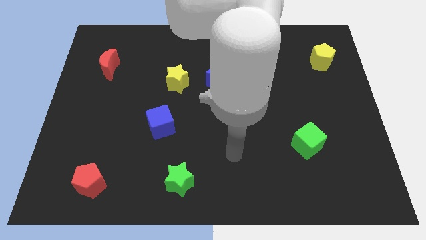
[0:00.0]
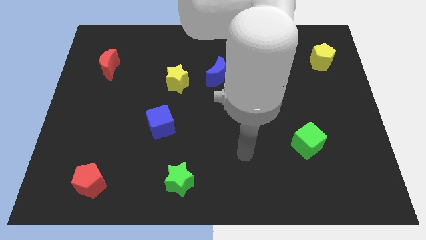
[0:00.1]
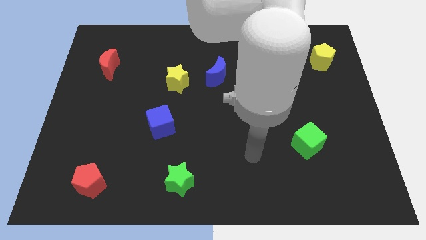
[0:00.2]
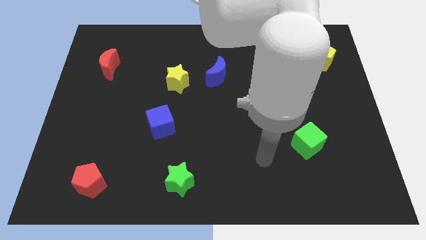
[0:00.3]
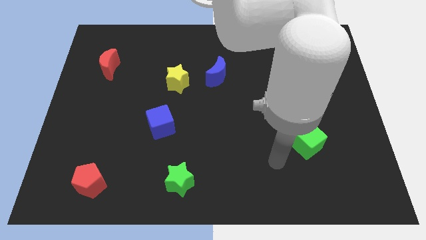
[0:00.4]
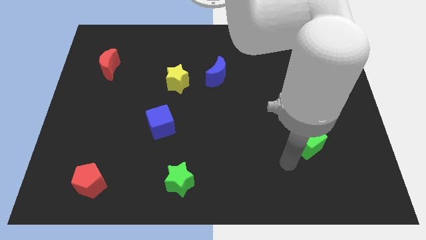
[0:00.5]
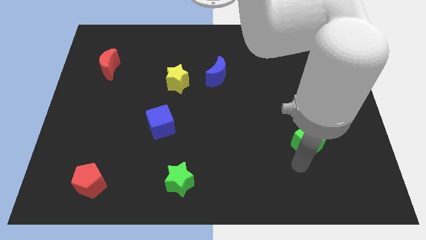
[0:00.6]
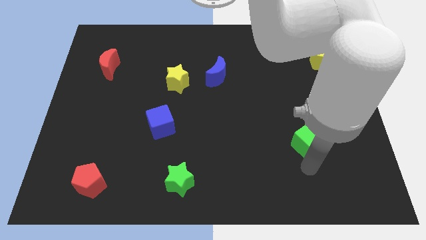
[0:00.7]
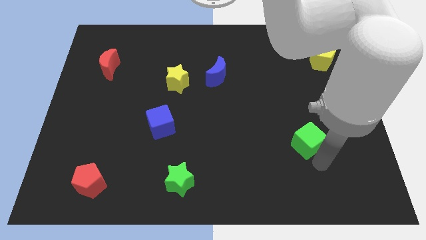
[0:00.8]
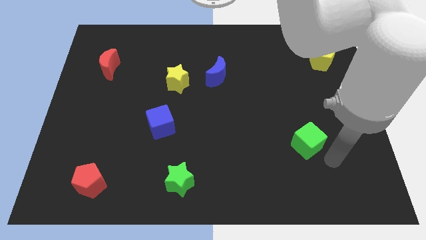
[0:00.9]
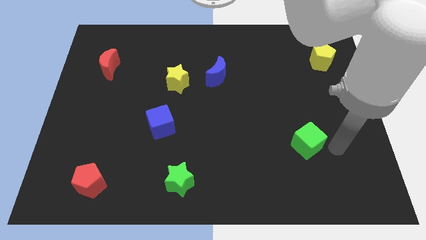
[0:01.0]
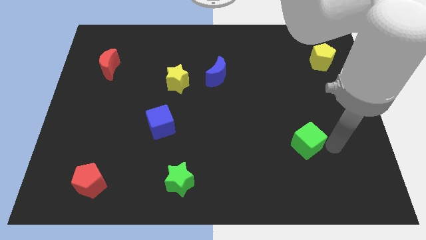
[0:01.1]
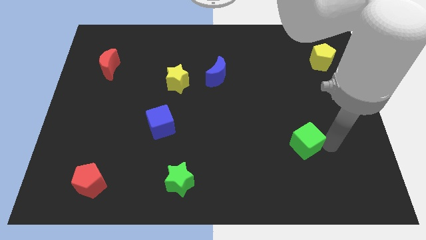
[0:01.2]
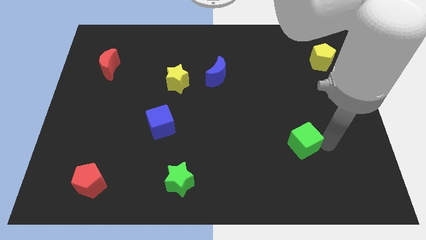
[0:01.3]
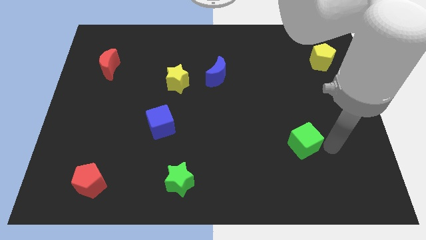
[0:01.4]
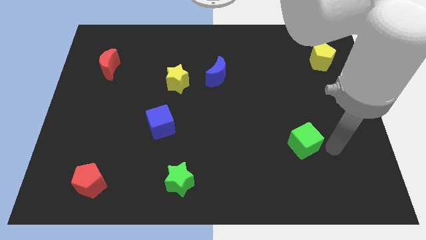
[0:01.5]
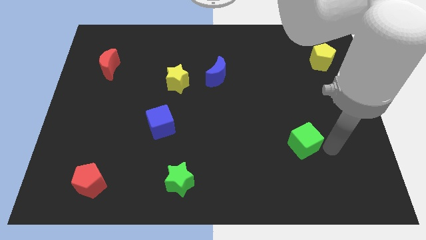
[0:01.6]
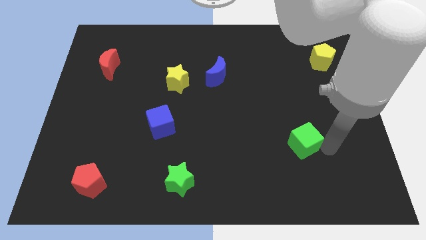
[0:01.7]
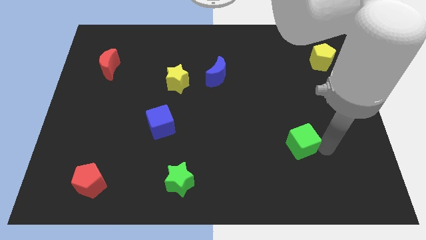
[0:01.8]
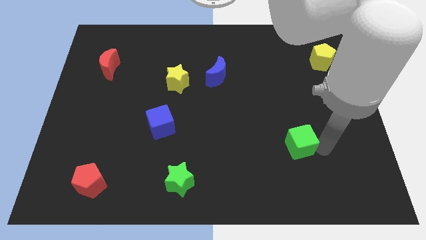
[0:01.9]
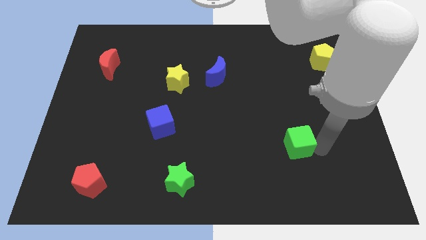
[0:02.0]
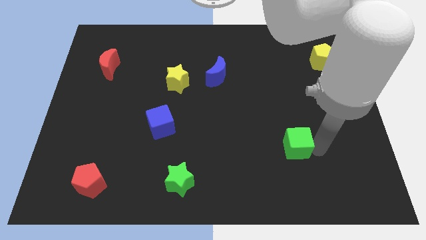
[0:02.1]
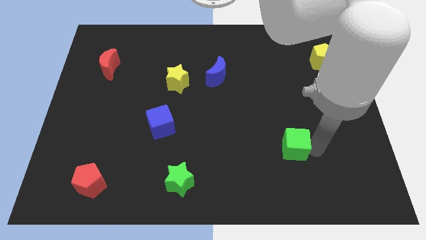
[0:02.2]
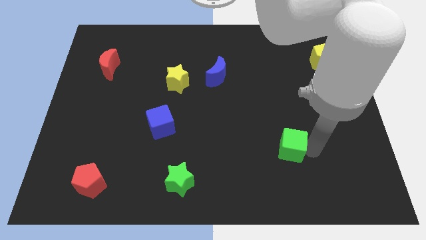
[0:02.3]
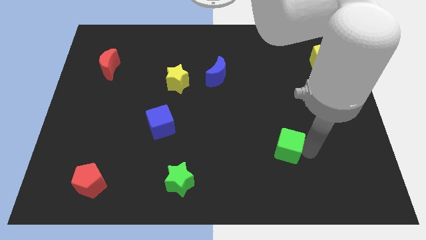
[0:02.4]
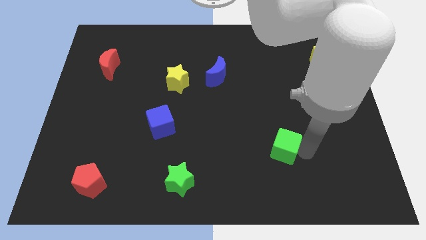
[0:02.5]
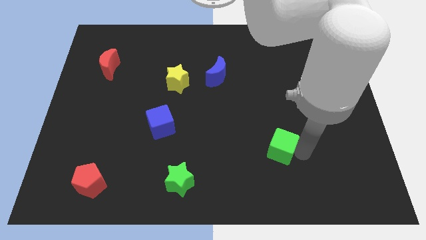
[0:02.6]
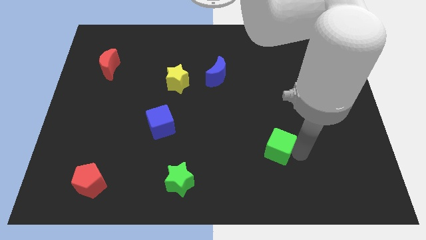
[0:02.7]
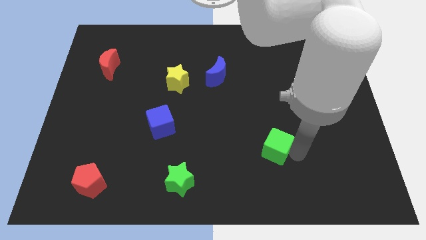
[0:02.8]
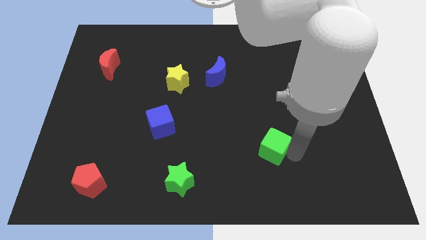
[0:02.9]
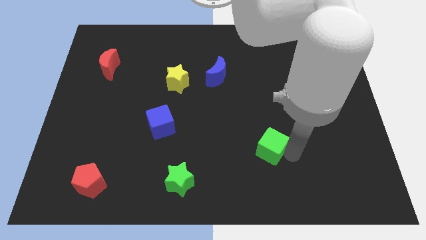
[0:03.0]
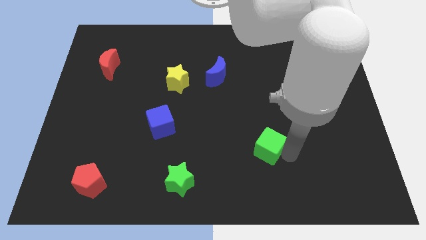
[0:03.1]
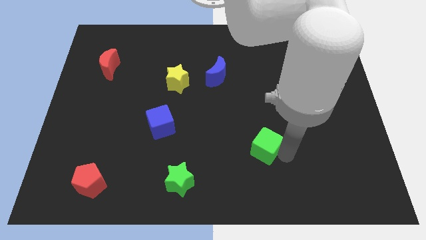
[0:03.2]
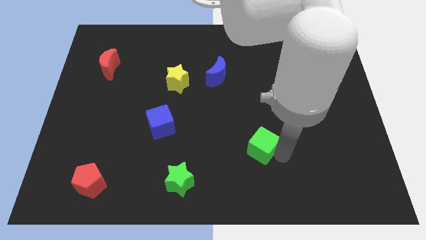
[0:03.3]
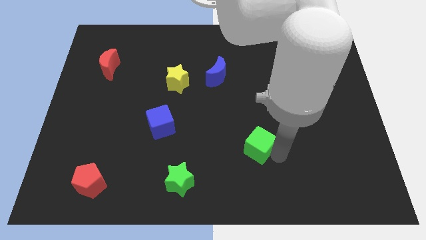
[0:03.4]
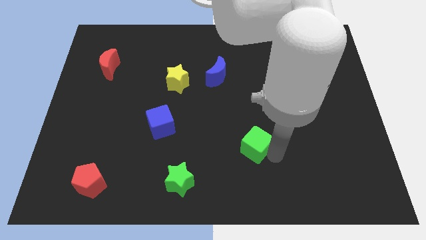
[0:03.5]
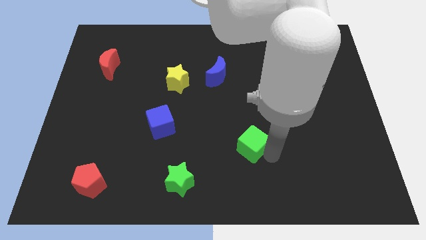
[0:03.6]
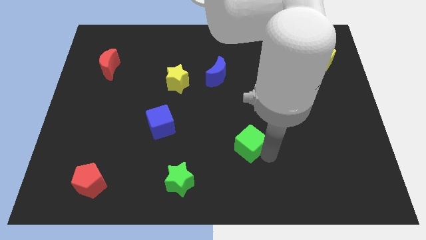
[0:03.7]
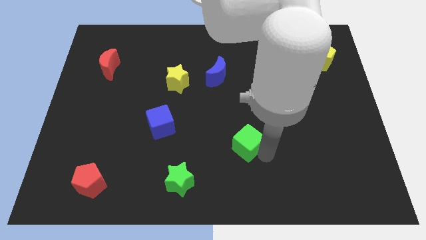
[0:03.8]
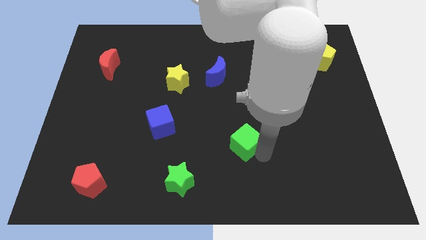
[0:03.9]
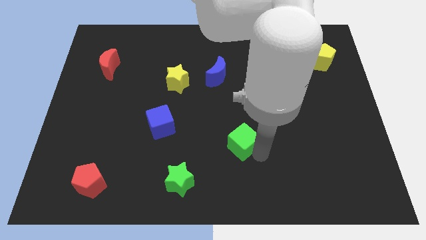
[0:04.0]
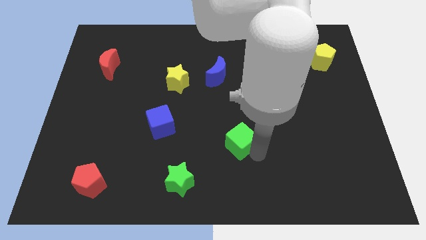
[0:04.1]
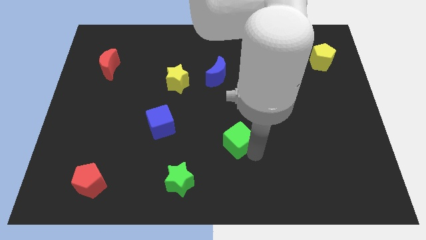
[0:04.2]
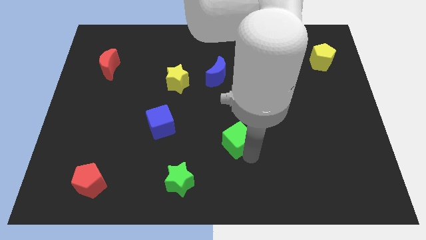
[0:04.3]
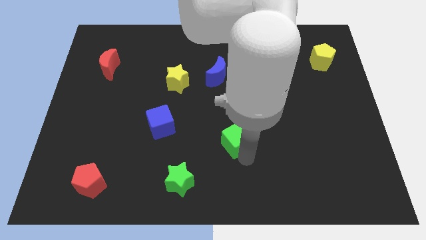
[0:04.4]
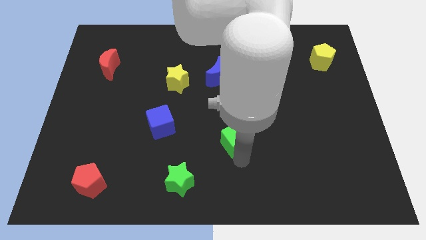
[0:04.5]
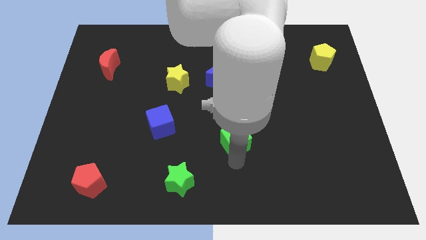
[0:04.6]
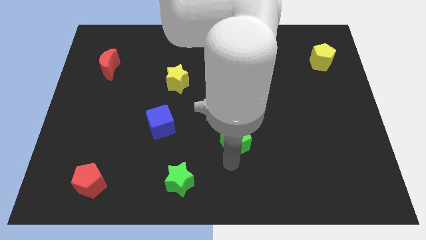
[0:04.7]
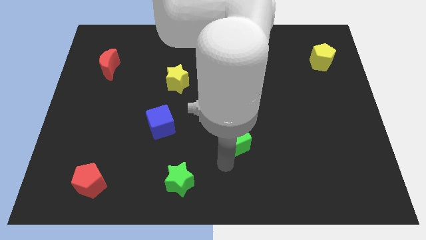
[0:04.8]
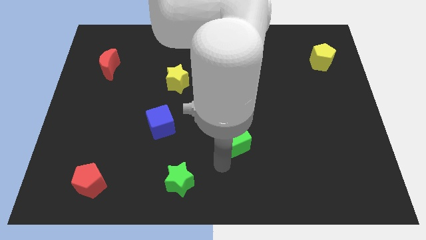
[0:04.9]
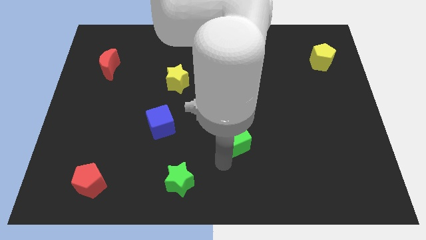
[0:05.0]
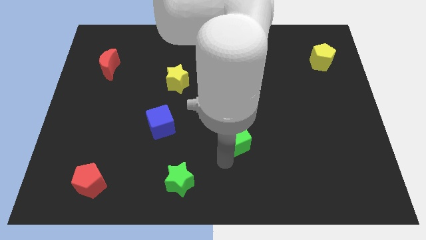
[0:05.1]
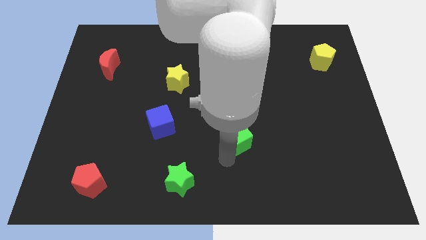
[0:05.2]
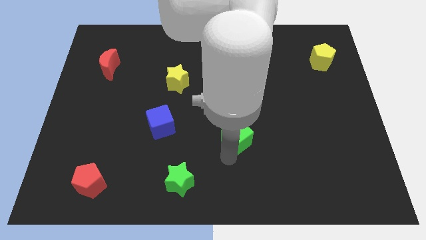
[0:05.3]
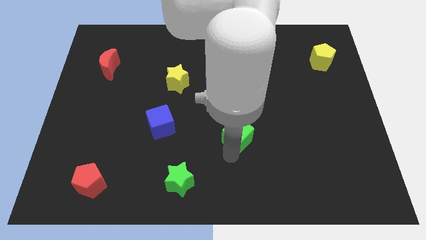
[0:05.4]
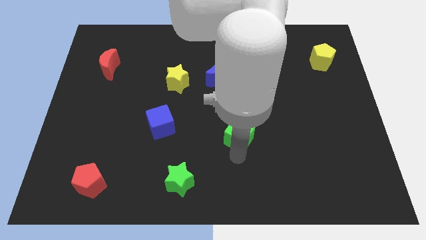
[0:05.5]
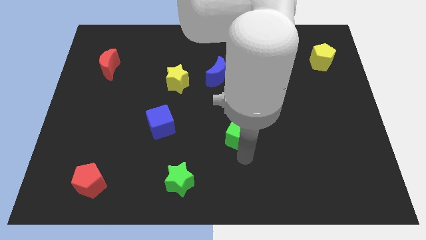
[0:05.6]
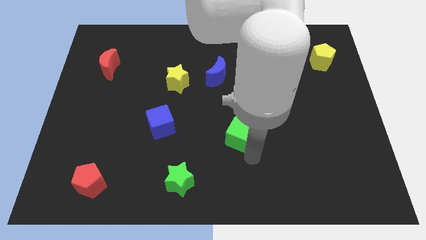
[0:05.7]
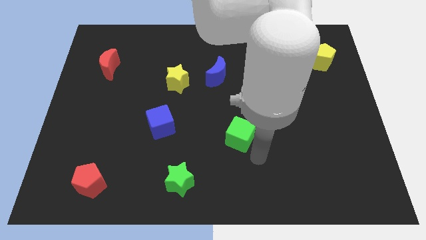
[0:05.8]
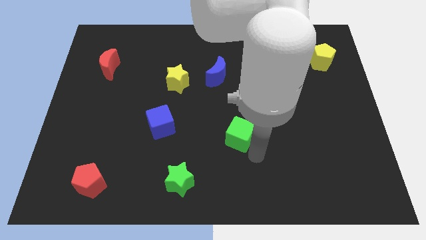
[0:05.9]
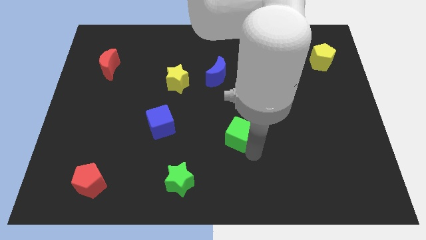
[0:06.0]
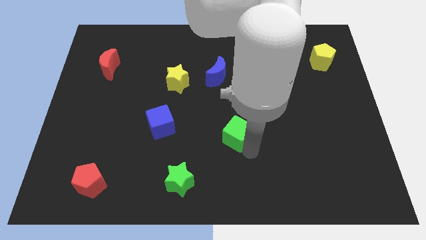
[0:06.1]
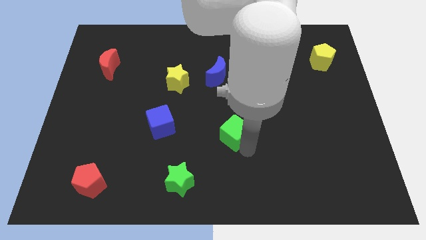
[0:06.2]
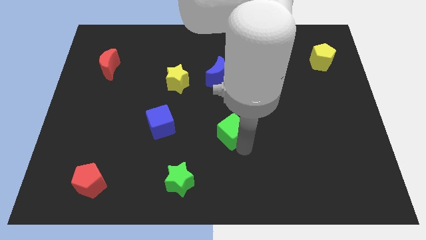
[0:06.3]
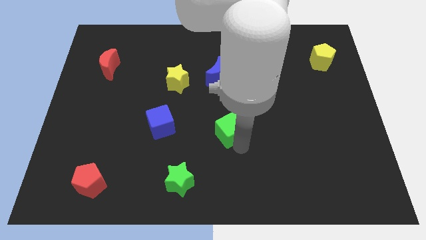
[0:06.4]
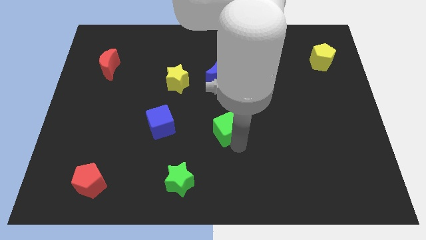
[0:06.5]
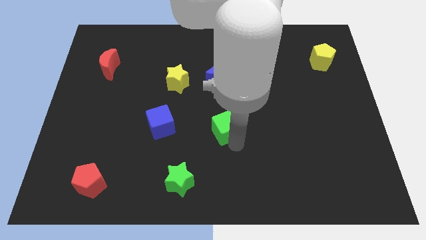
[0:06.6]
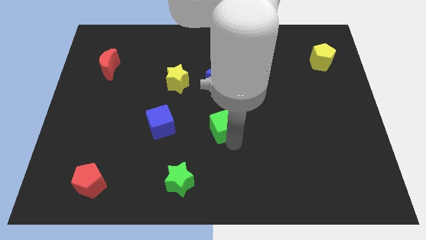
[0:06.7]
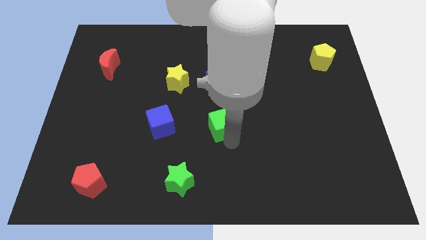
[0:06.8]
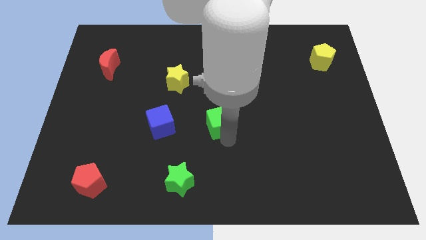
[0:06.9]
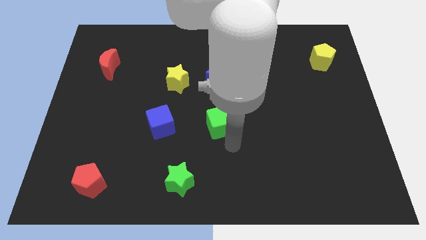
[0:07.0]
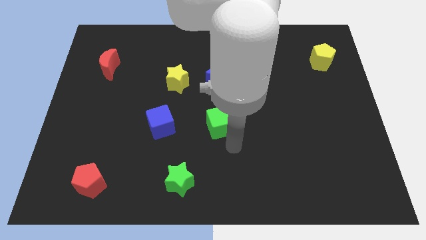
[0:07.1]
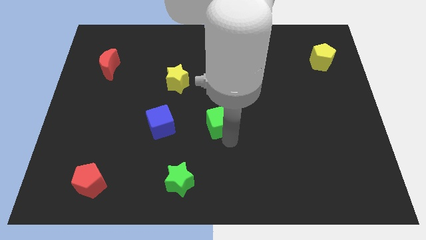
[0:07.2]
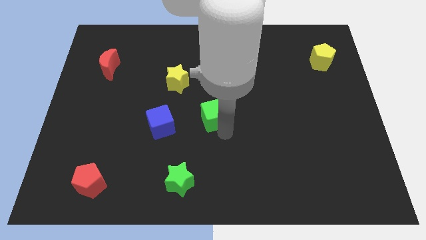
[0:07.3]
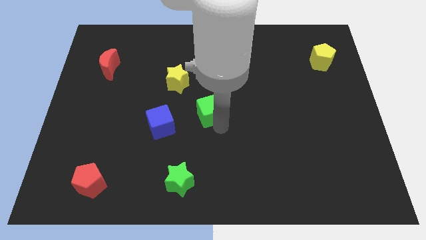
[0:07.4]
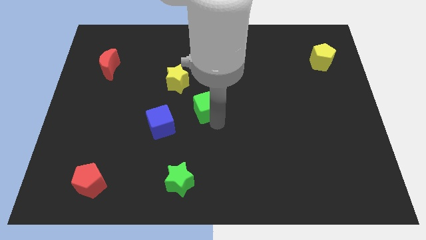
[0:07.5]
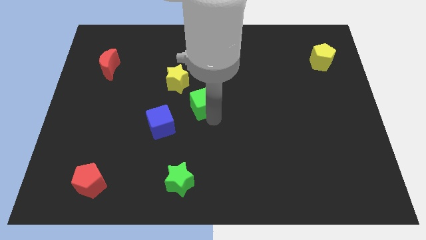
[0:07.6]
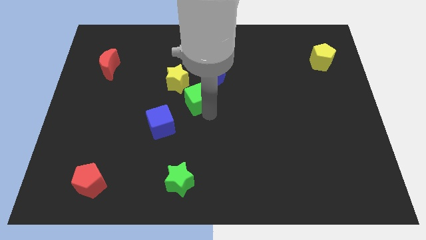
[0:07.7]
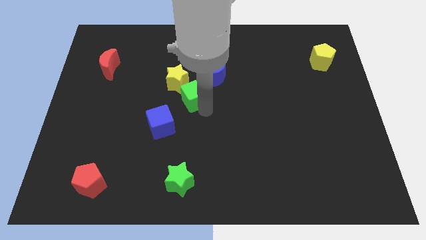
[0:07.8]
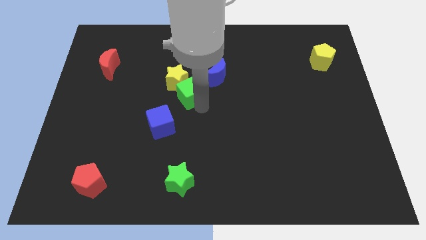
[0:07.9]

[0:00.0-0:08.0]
slide the green cube towards the yellow star
